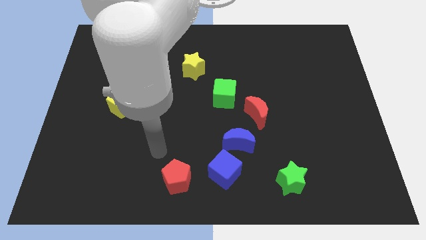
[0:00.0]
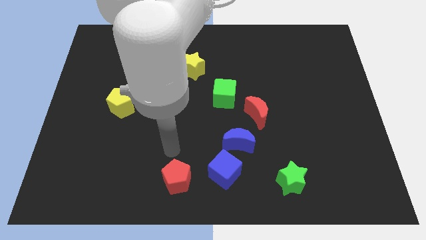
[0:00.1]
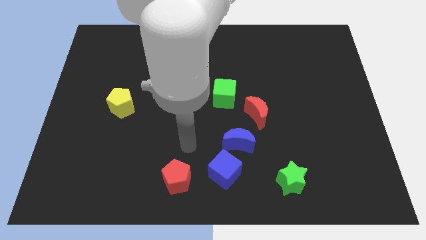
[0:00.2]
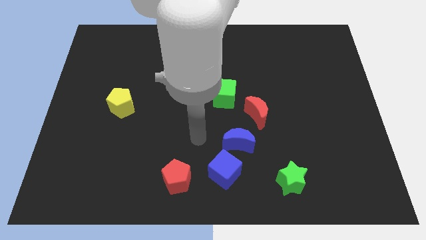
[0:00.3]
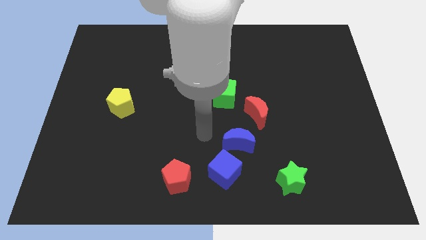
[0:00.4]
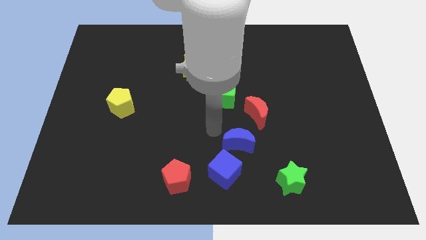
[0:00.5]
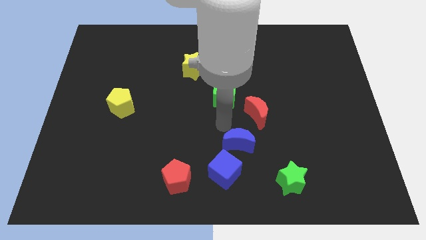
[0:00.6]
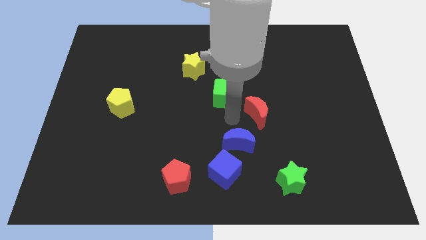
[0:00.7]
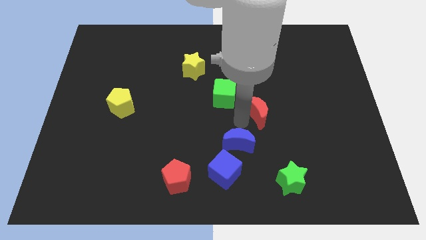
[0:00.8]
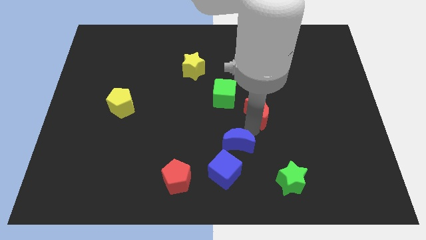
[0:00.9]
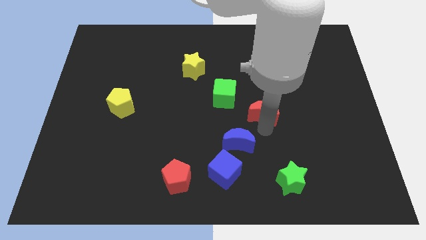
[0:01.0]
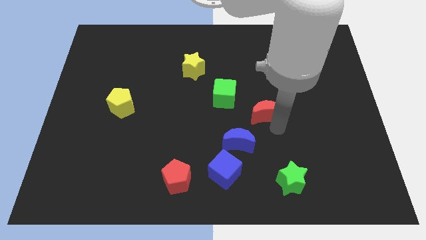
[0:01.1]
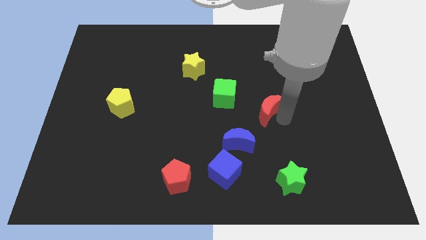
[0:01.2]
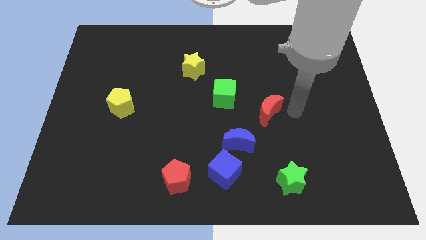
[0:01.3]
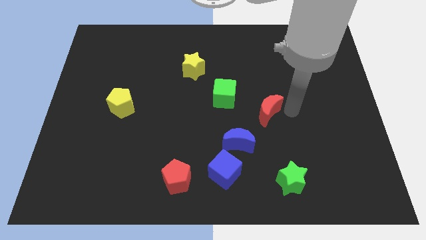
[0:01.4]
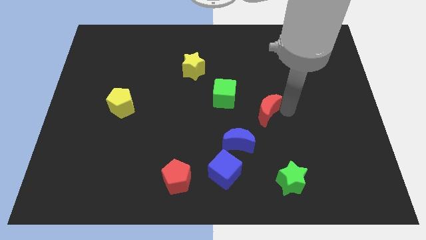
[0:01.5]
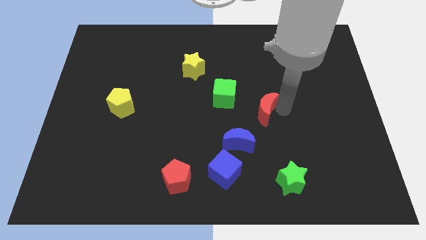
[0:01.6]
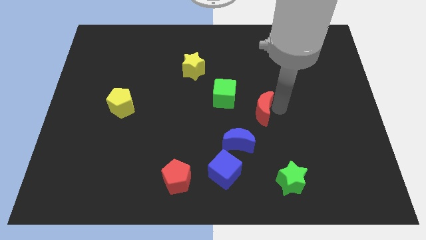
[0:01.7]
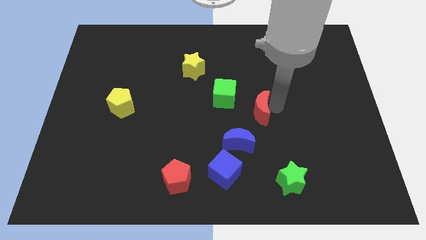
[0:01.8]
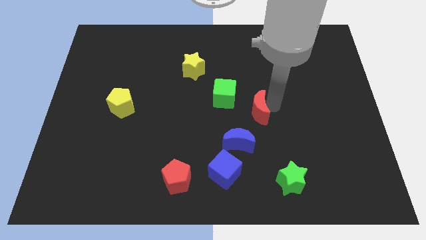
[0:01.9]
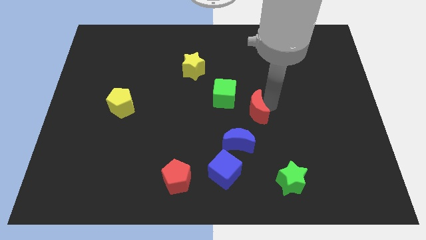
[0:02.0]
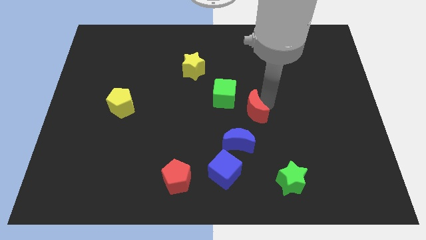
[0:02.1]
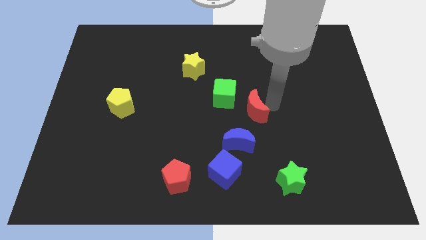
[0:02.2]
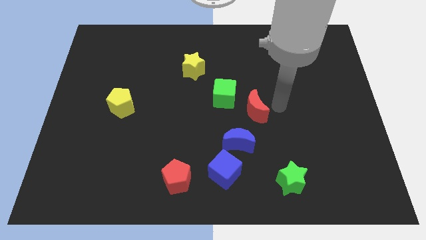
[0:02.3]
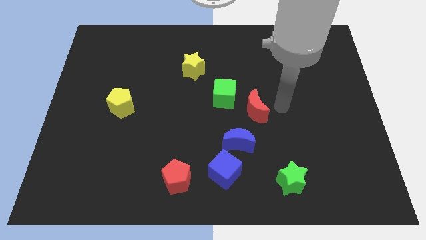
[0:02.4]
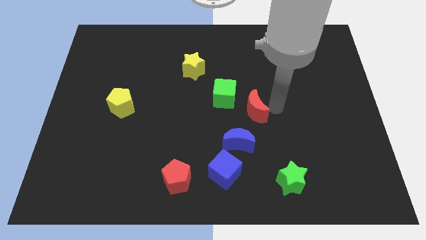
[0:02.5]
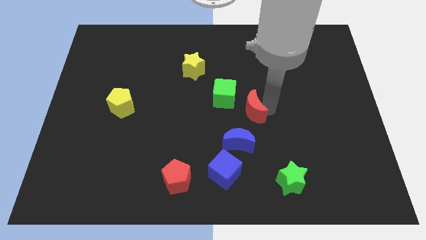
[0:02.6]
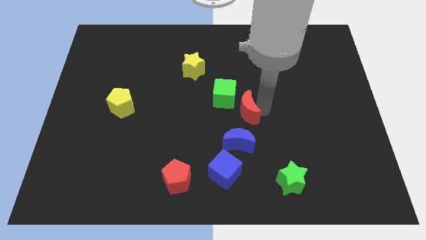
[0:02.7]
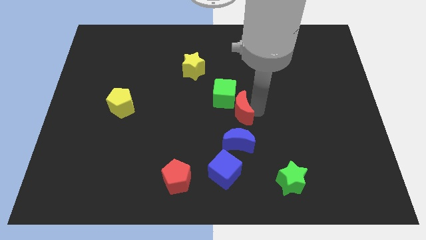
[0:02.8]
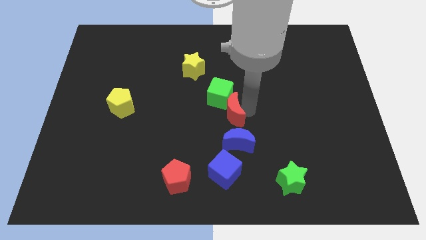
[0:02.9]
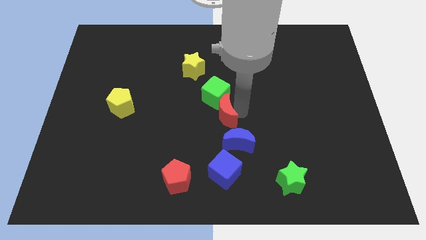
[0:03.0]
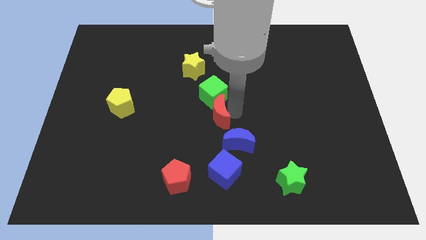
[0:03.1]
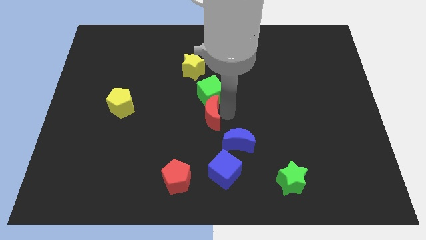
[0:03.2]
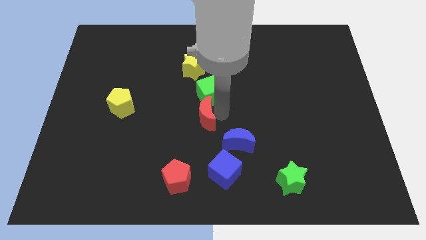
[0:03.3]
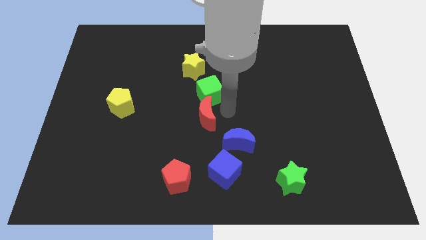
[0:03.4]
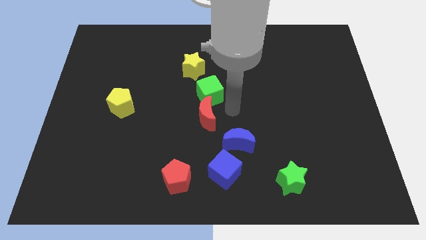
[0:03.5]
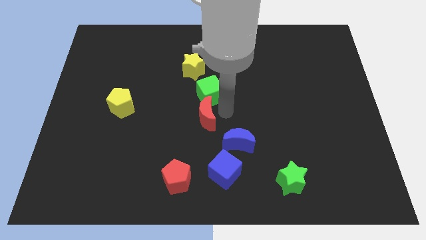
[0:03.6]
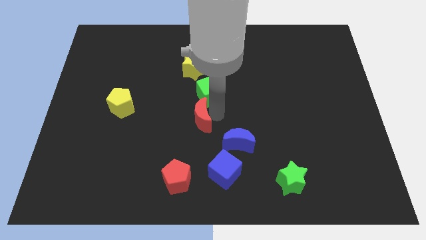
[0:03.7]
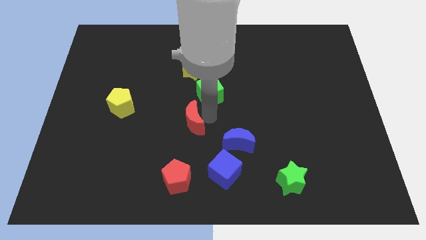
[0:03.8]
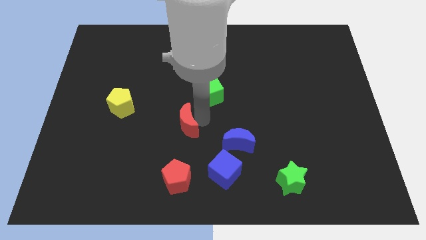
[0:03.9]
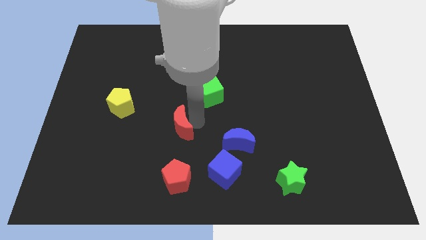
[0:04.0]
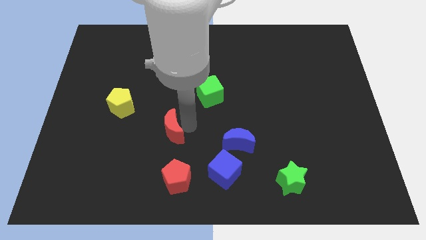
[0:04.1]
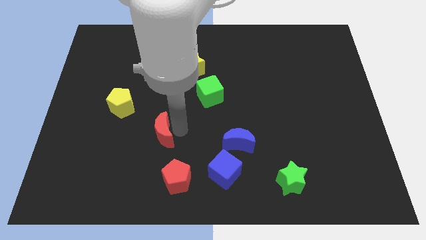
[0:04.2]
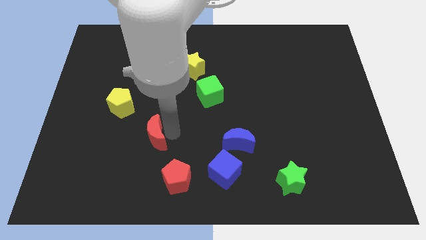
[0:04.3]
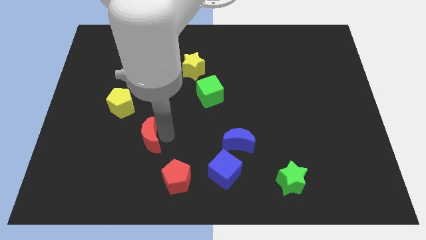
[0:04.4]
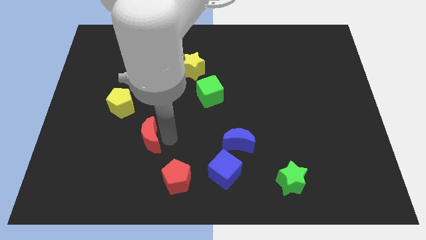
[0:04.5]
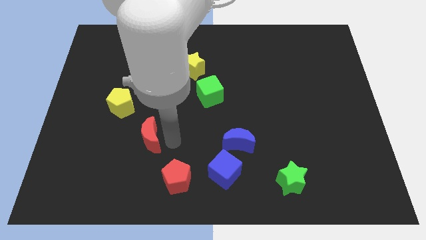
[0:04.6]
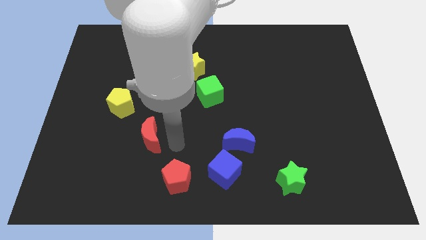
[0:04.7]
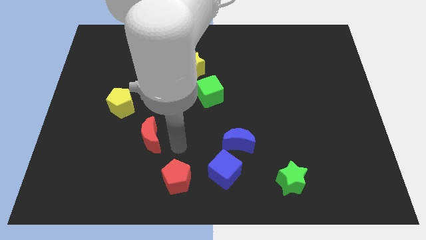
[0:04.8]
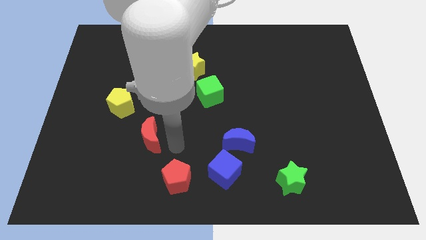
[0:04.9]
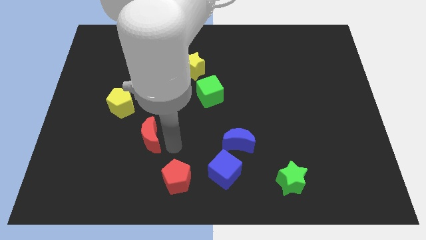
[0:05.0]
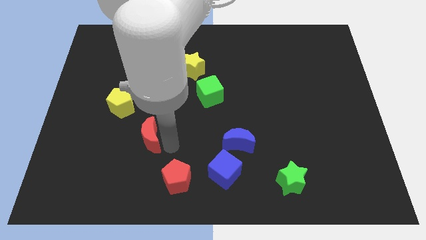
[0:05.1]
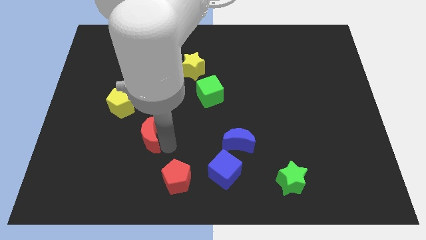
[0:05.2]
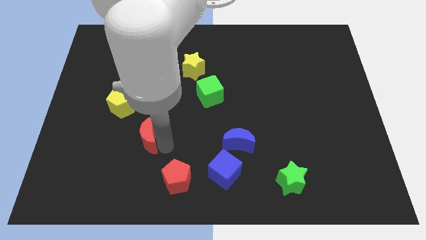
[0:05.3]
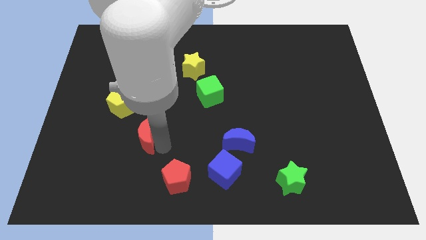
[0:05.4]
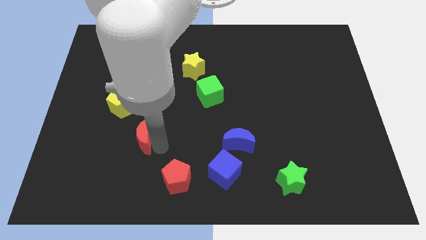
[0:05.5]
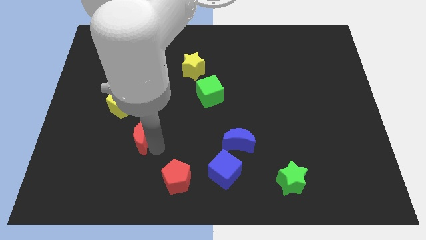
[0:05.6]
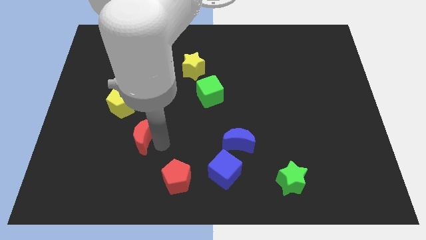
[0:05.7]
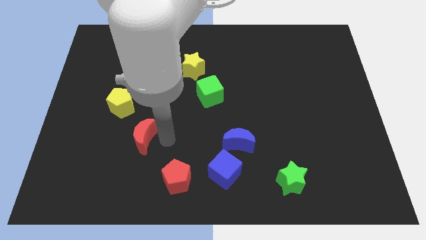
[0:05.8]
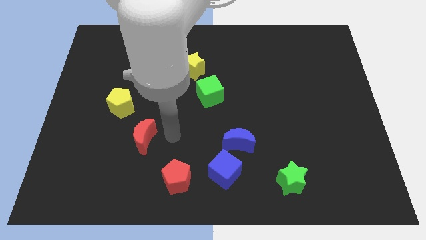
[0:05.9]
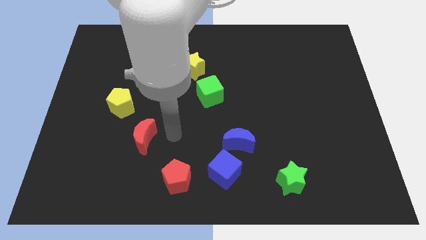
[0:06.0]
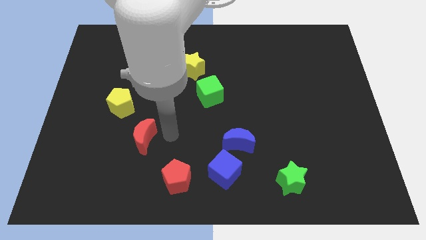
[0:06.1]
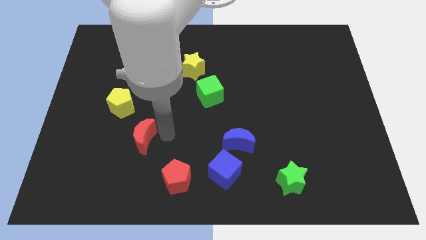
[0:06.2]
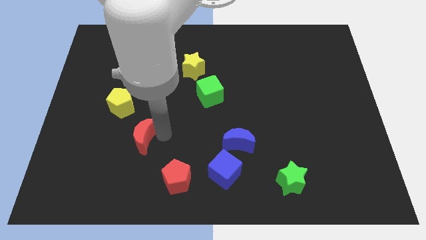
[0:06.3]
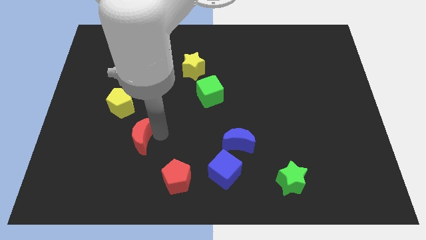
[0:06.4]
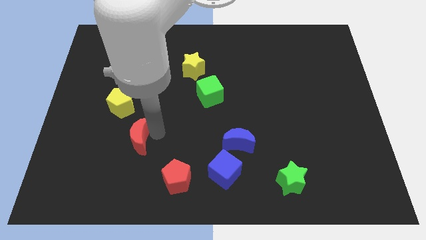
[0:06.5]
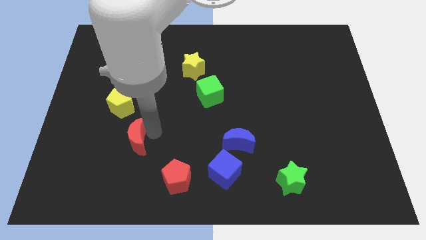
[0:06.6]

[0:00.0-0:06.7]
put the red moon to the bottom of the yellow pentagon

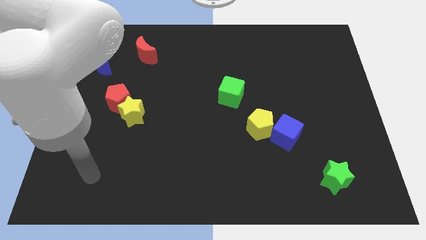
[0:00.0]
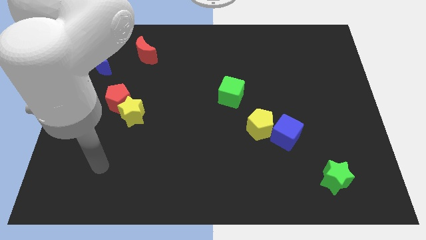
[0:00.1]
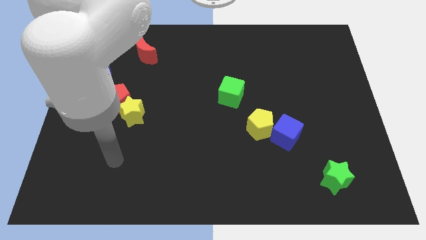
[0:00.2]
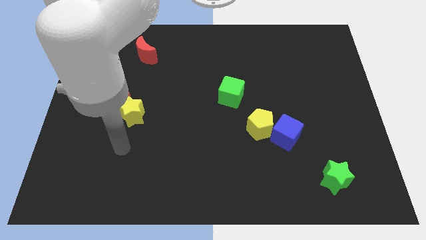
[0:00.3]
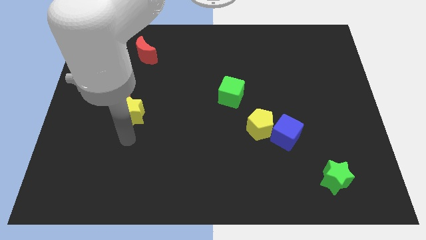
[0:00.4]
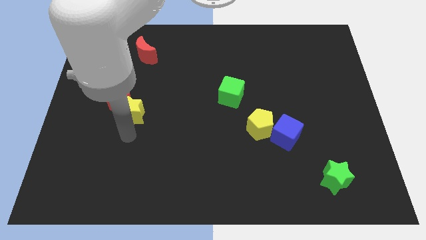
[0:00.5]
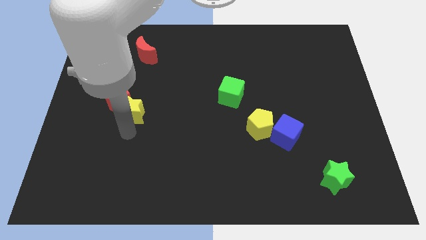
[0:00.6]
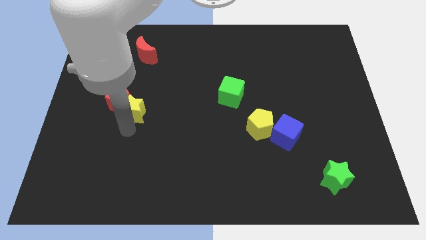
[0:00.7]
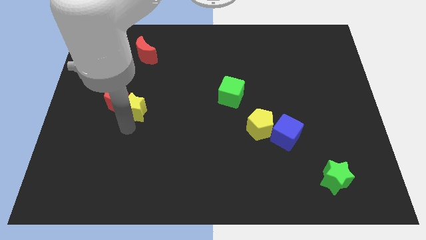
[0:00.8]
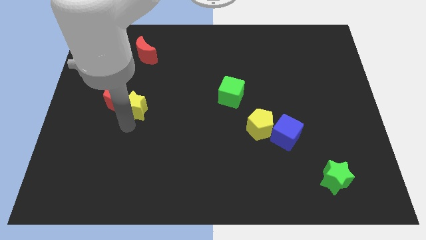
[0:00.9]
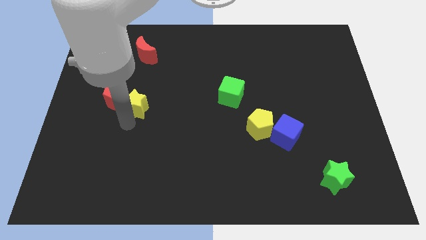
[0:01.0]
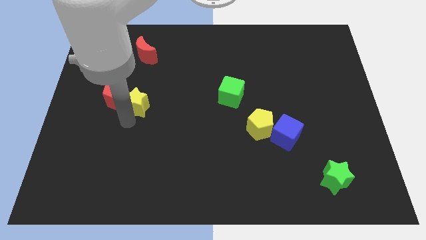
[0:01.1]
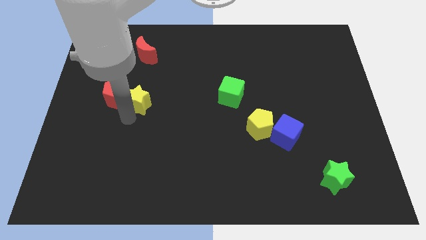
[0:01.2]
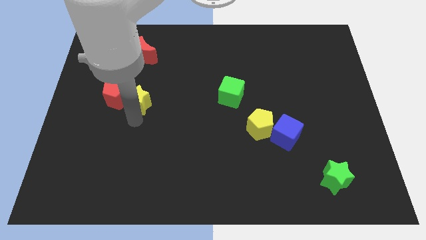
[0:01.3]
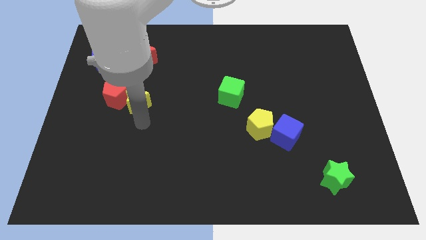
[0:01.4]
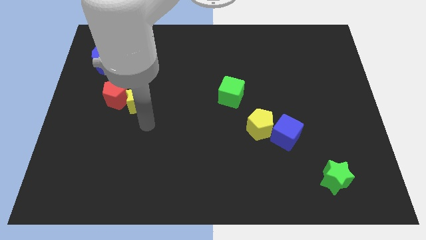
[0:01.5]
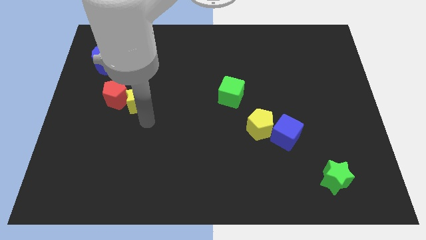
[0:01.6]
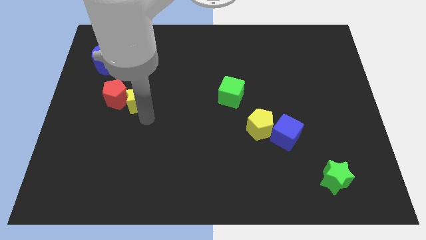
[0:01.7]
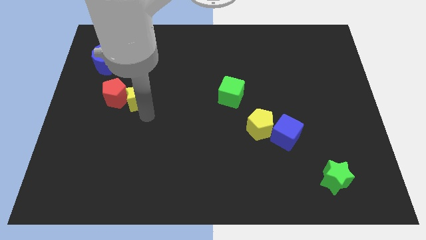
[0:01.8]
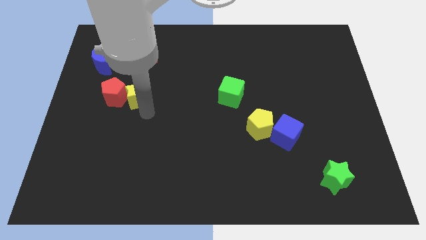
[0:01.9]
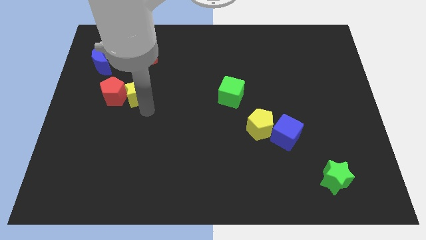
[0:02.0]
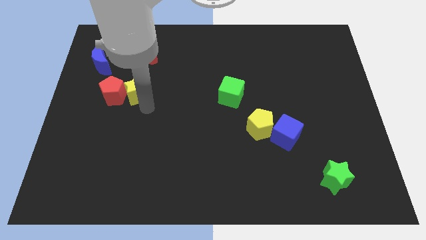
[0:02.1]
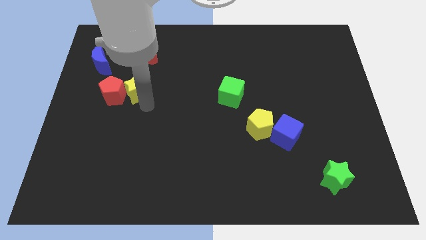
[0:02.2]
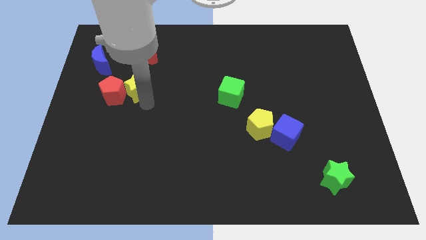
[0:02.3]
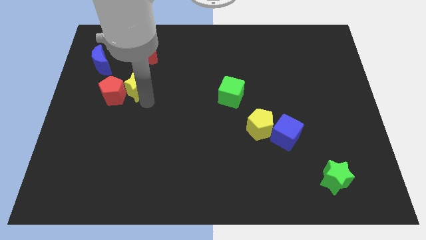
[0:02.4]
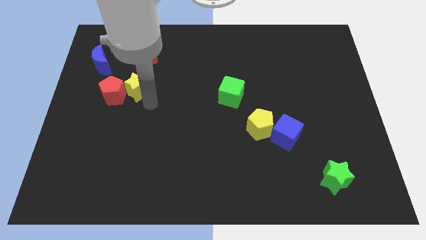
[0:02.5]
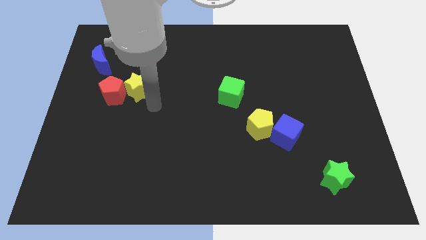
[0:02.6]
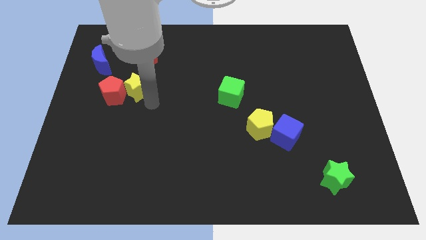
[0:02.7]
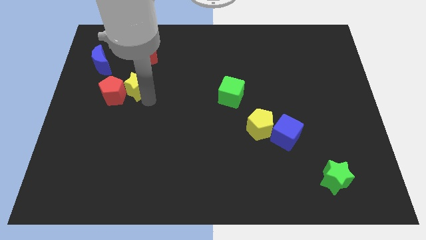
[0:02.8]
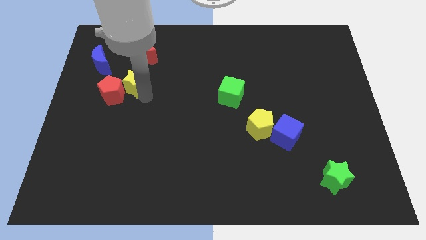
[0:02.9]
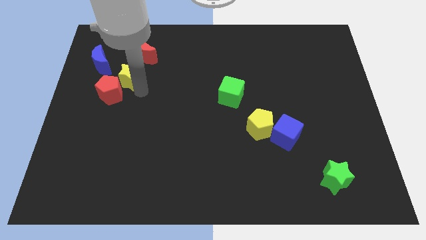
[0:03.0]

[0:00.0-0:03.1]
push the yellow star to the top of the red pentagon
